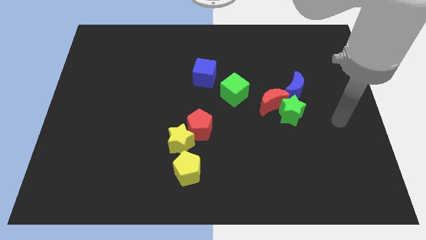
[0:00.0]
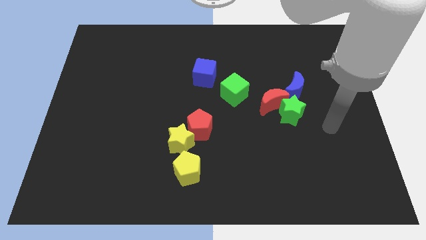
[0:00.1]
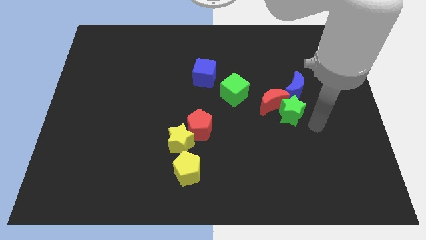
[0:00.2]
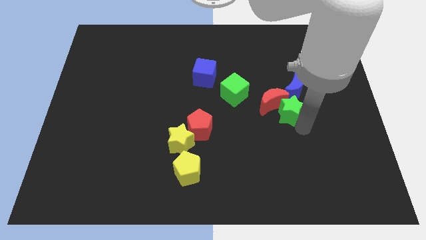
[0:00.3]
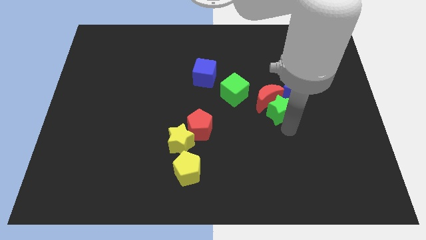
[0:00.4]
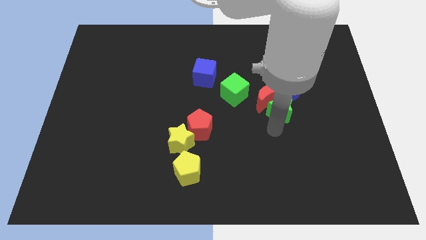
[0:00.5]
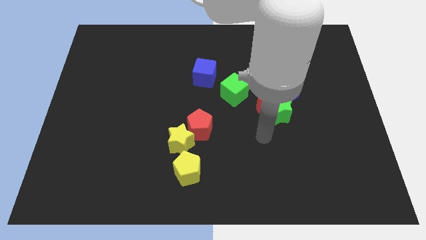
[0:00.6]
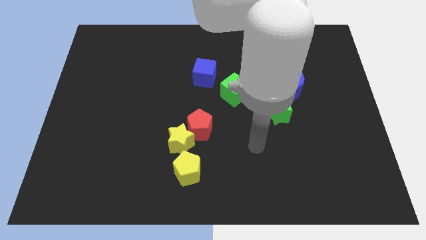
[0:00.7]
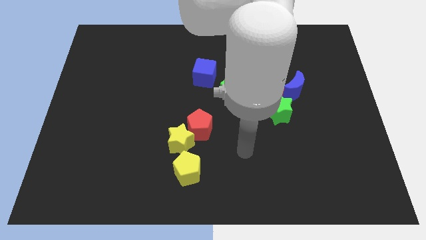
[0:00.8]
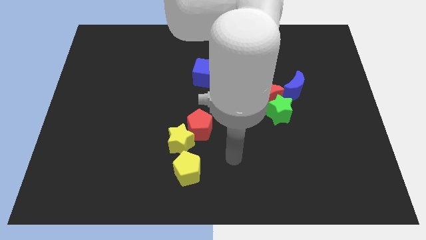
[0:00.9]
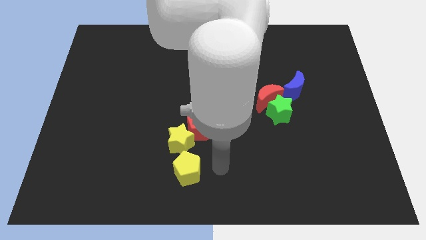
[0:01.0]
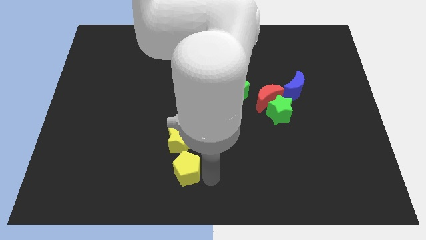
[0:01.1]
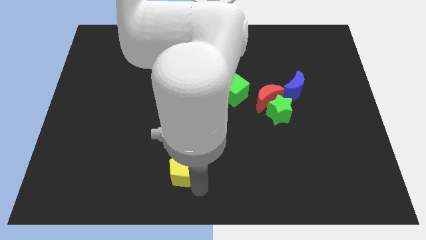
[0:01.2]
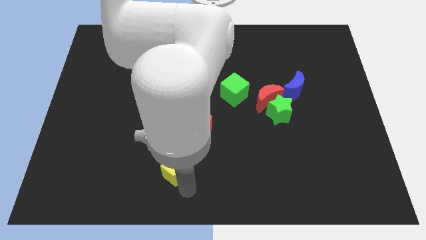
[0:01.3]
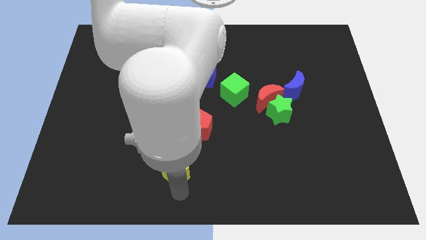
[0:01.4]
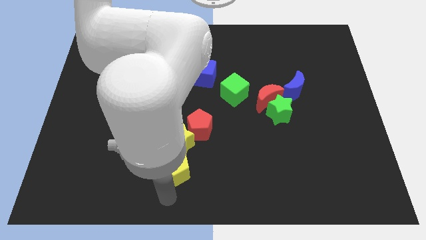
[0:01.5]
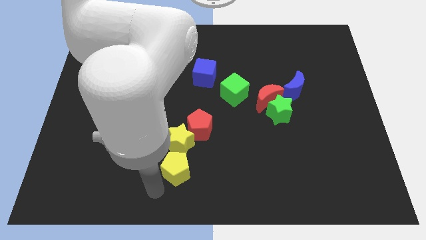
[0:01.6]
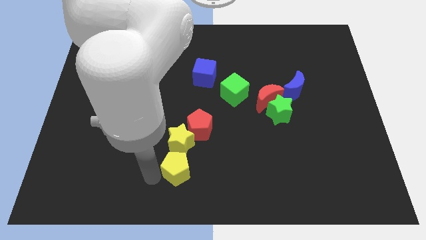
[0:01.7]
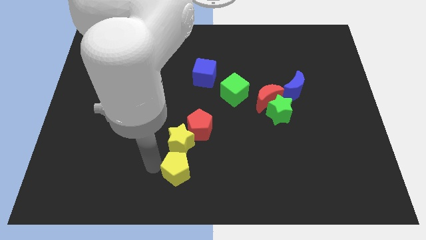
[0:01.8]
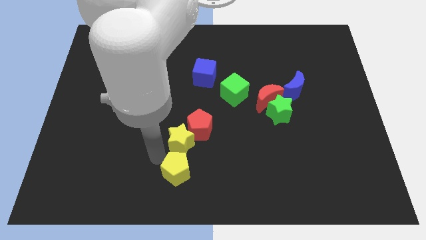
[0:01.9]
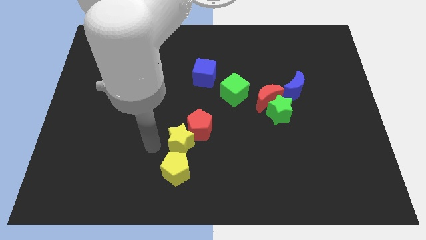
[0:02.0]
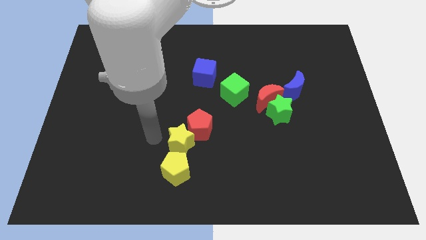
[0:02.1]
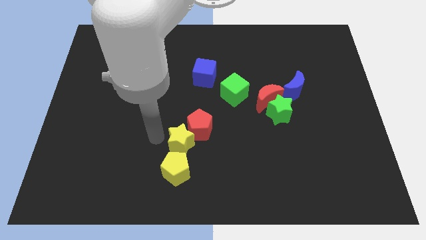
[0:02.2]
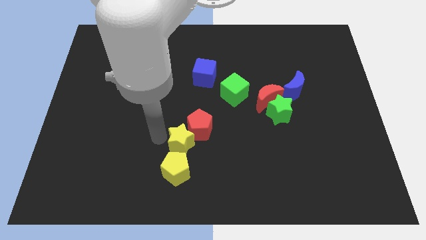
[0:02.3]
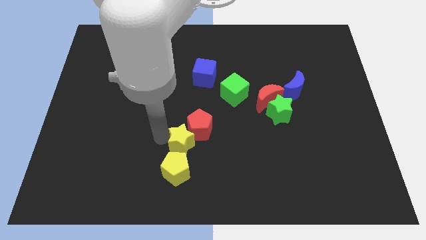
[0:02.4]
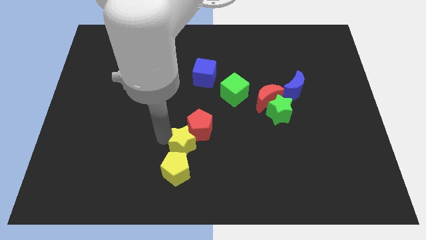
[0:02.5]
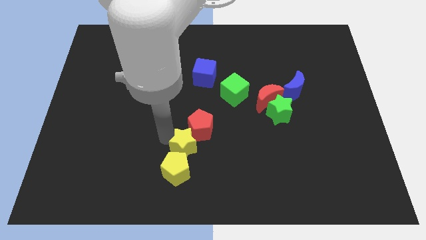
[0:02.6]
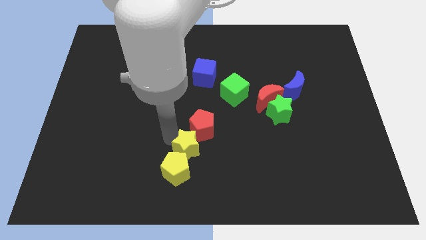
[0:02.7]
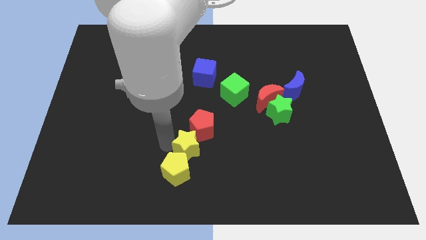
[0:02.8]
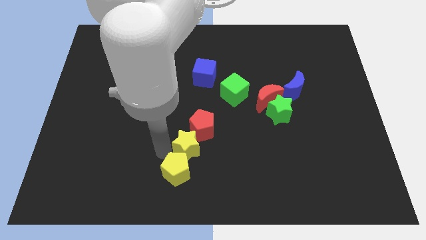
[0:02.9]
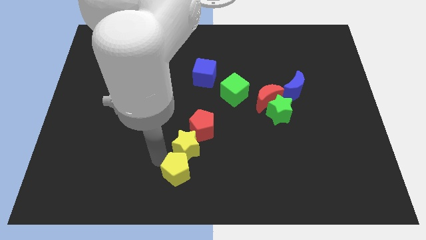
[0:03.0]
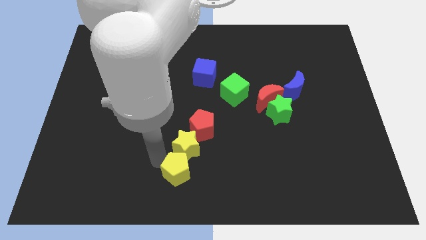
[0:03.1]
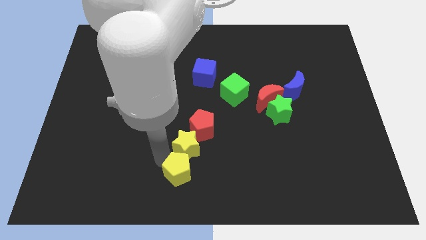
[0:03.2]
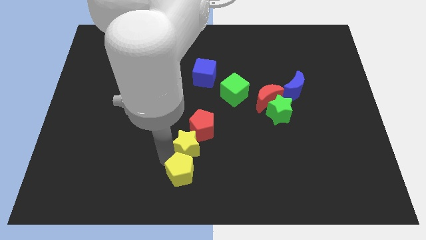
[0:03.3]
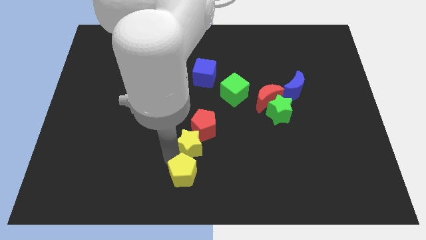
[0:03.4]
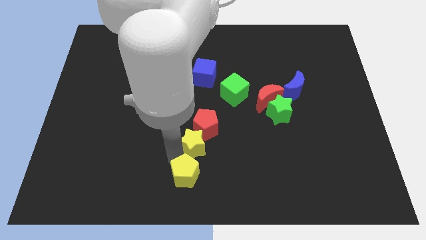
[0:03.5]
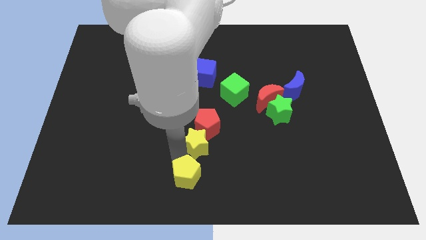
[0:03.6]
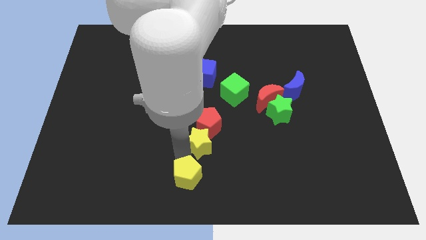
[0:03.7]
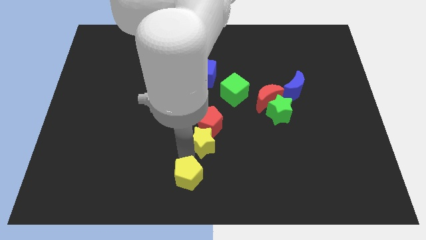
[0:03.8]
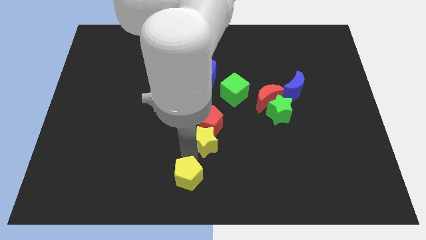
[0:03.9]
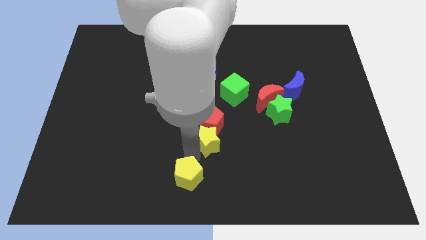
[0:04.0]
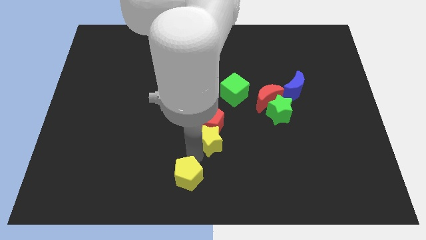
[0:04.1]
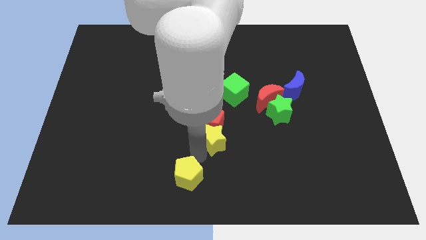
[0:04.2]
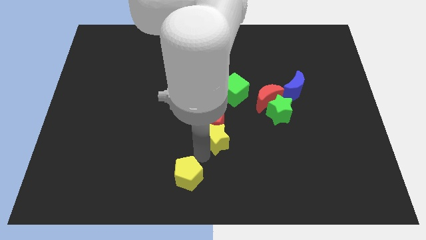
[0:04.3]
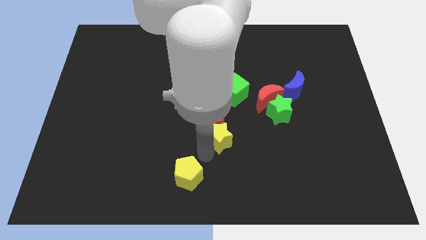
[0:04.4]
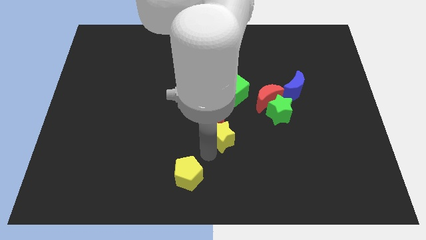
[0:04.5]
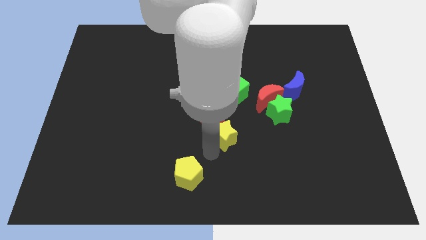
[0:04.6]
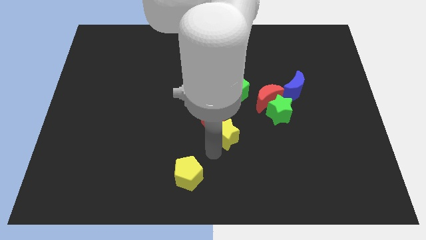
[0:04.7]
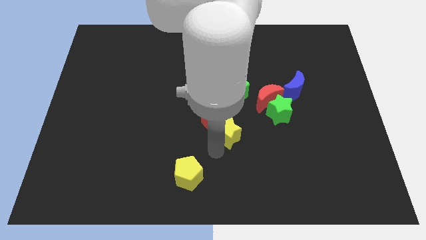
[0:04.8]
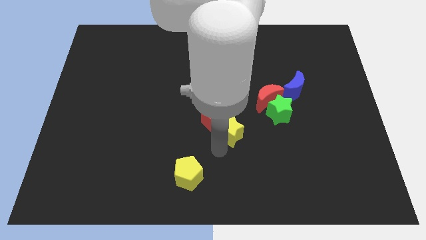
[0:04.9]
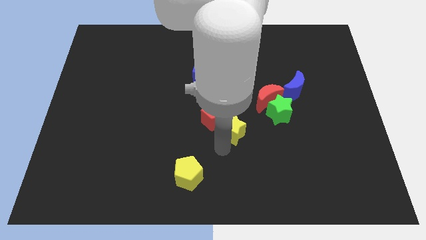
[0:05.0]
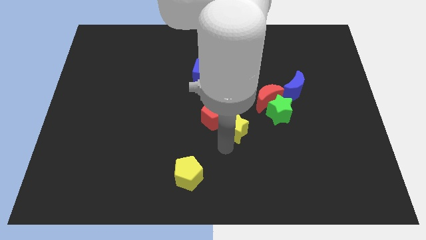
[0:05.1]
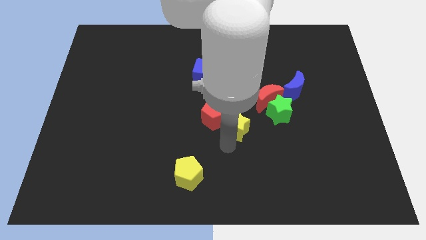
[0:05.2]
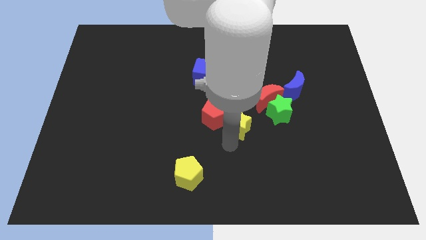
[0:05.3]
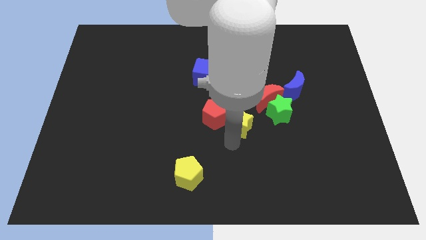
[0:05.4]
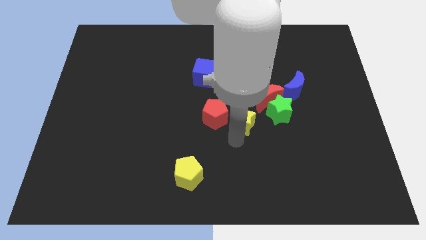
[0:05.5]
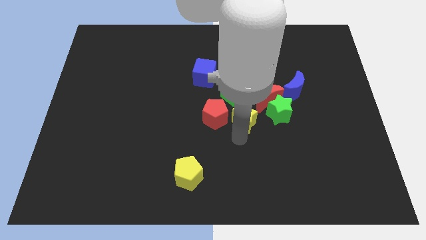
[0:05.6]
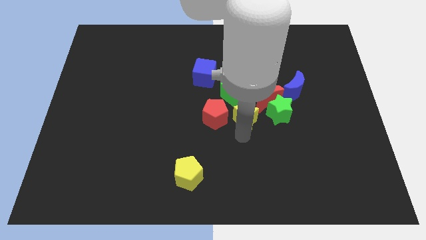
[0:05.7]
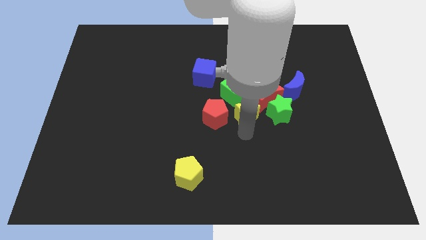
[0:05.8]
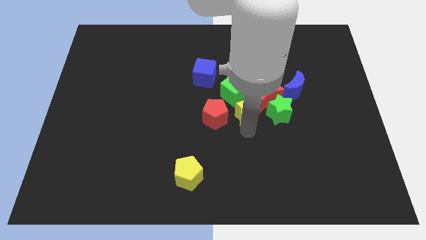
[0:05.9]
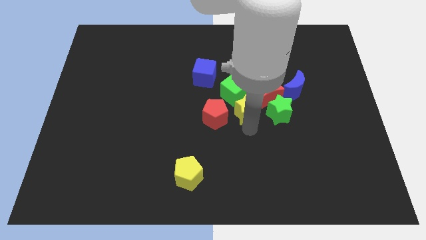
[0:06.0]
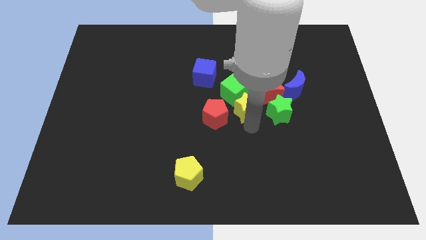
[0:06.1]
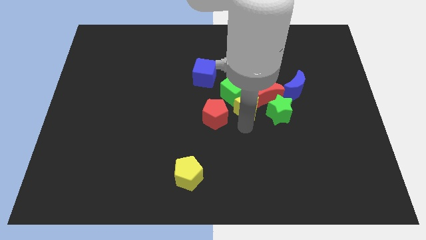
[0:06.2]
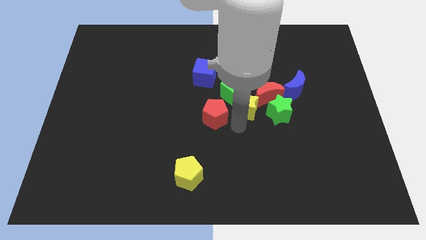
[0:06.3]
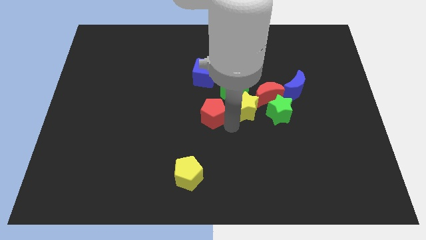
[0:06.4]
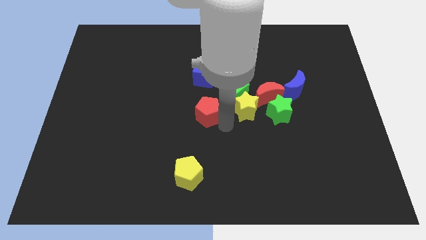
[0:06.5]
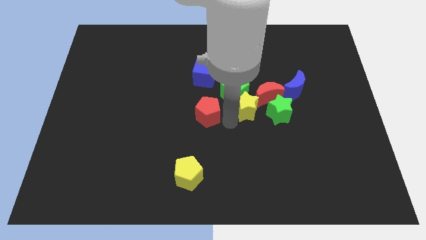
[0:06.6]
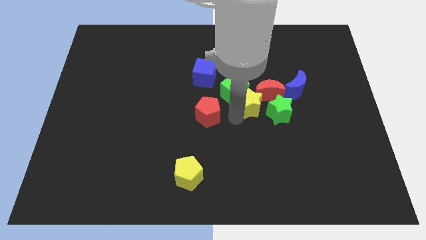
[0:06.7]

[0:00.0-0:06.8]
move the yellow star close to the red moon
